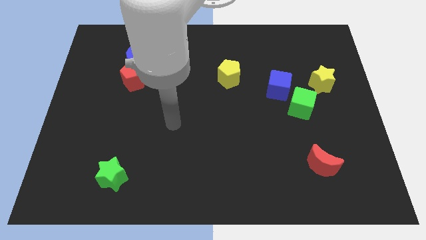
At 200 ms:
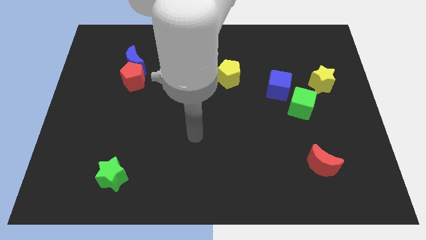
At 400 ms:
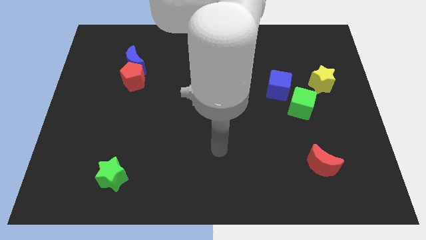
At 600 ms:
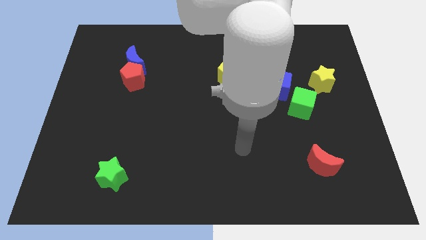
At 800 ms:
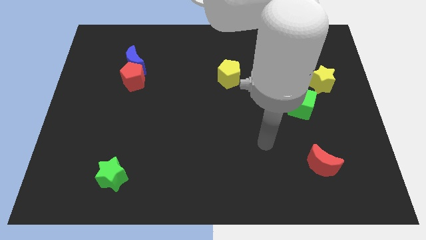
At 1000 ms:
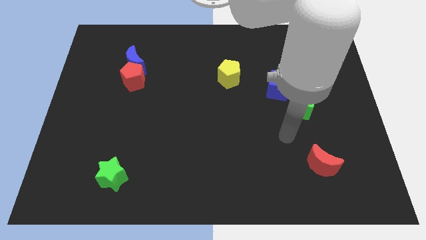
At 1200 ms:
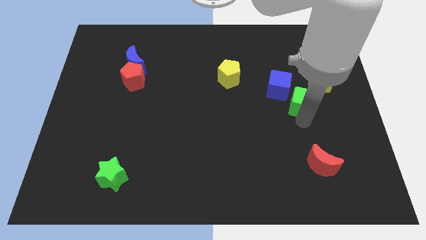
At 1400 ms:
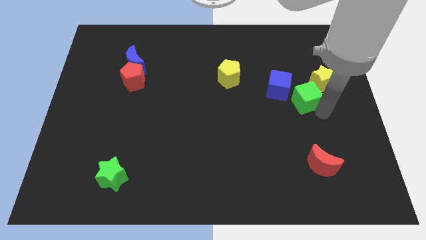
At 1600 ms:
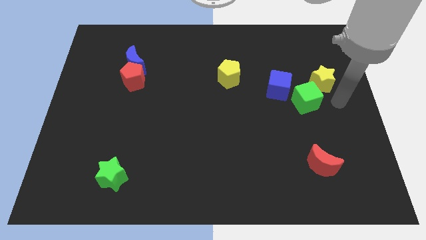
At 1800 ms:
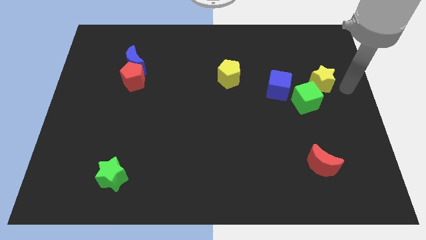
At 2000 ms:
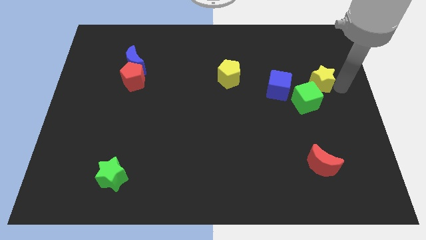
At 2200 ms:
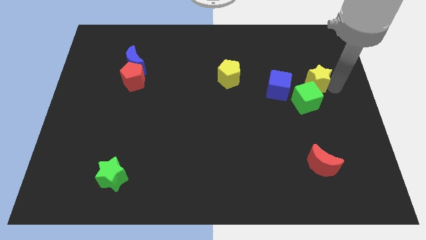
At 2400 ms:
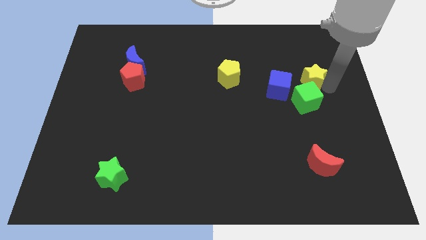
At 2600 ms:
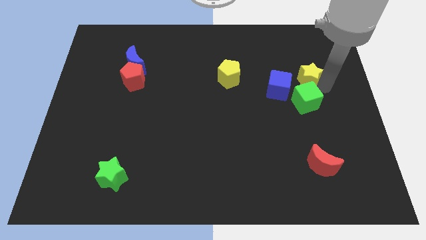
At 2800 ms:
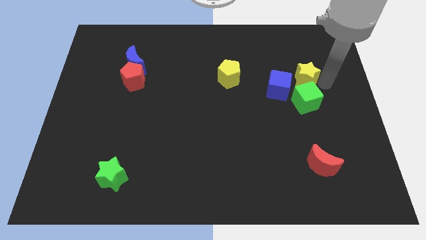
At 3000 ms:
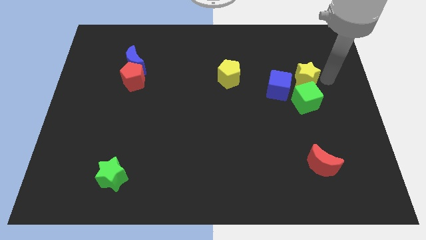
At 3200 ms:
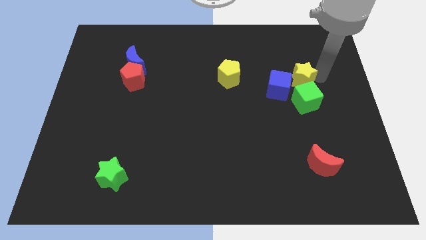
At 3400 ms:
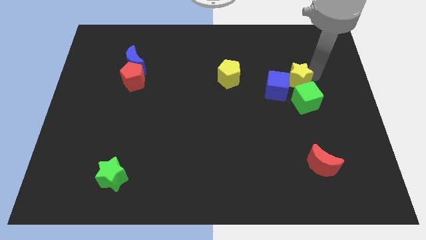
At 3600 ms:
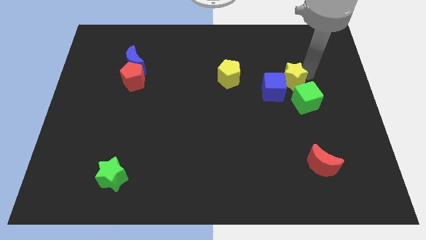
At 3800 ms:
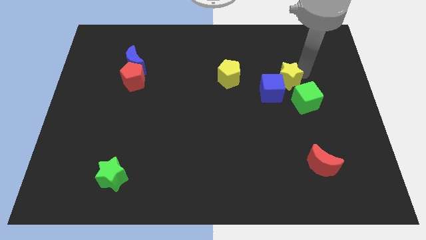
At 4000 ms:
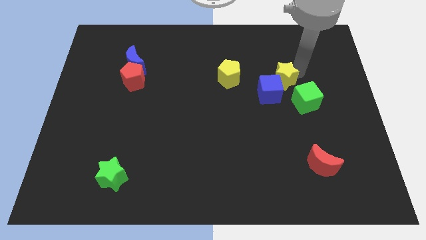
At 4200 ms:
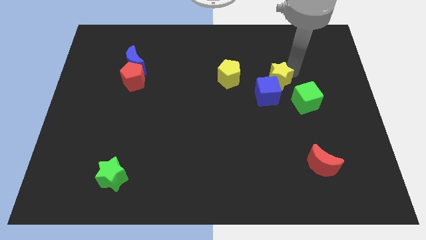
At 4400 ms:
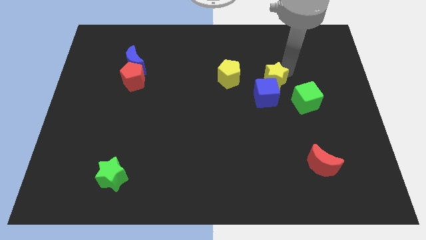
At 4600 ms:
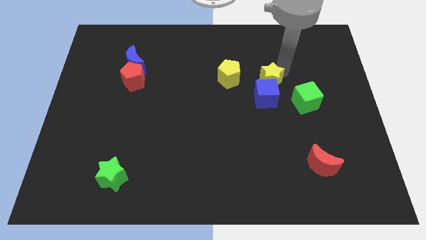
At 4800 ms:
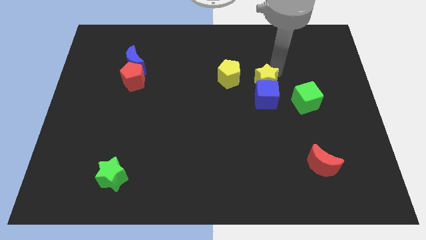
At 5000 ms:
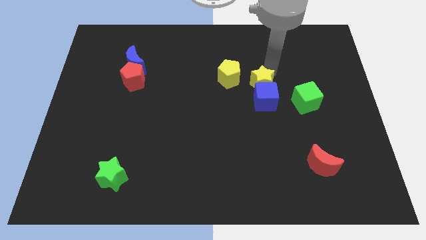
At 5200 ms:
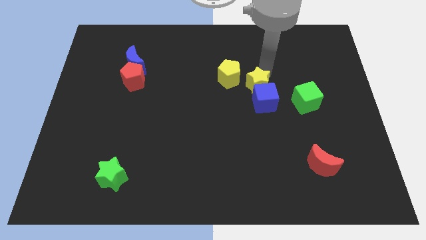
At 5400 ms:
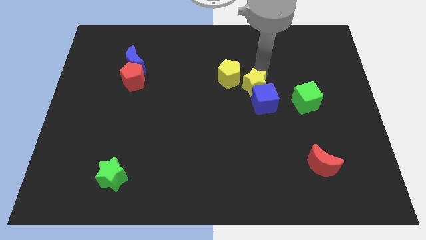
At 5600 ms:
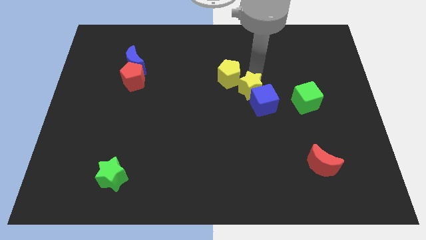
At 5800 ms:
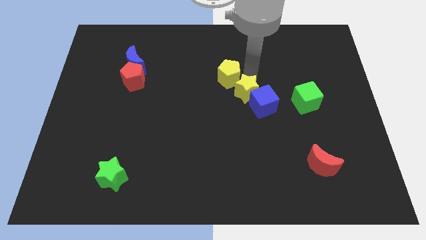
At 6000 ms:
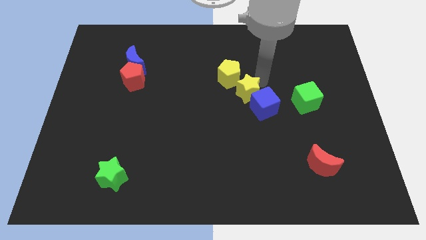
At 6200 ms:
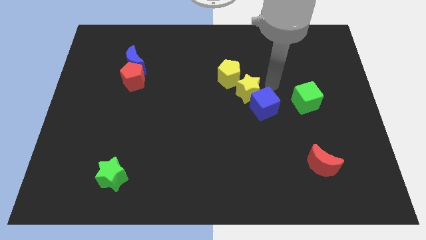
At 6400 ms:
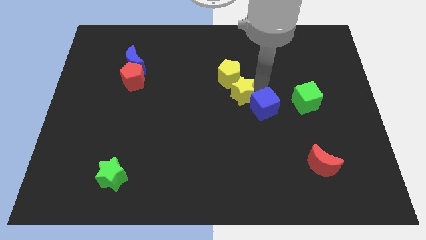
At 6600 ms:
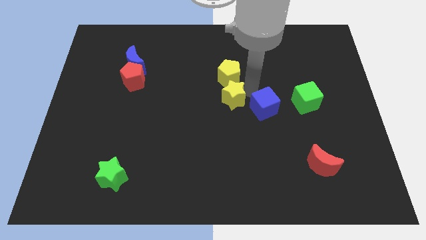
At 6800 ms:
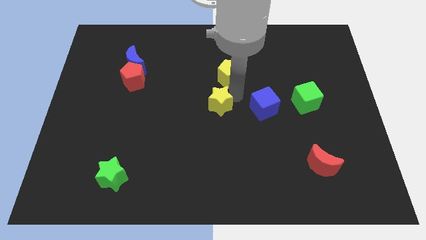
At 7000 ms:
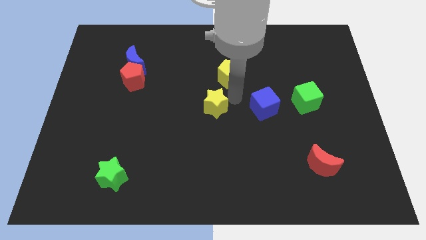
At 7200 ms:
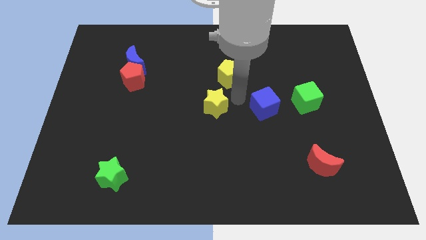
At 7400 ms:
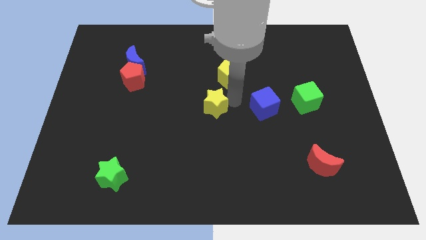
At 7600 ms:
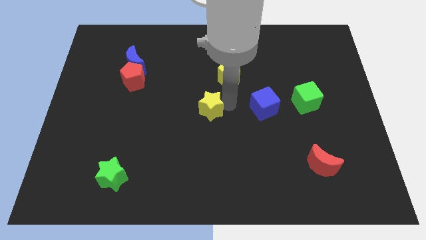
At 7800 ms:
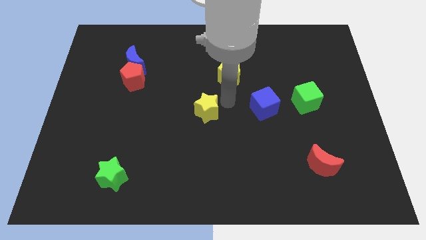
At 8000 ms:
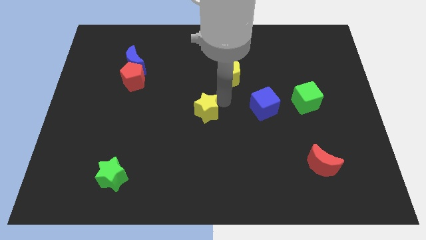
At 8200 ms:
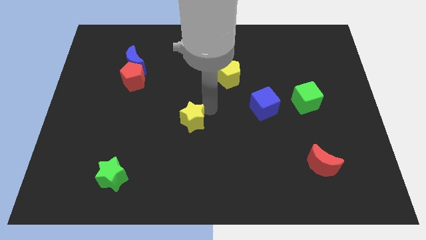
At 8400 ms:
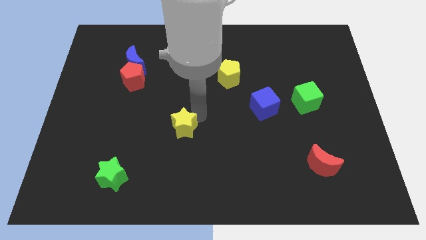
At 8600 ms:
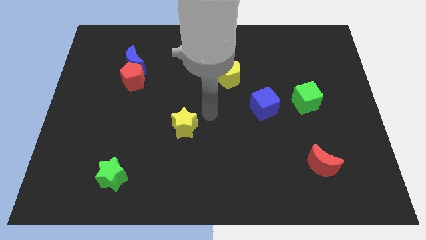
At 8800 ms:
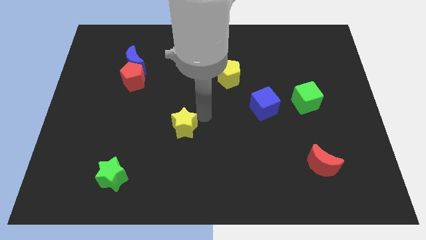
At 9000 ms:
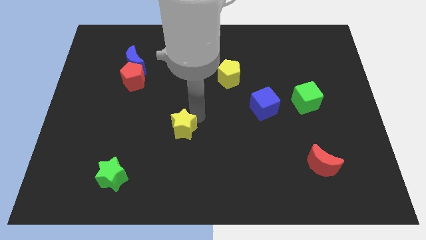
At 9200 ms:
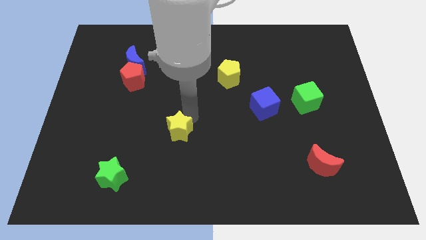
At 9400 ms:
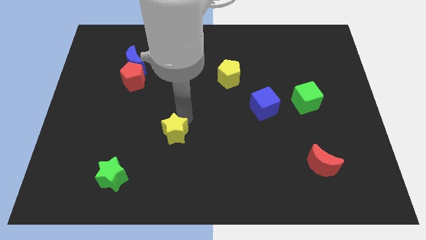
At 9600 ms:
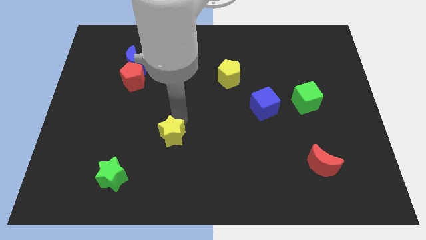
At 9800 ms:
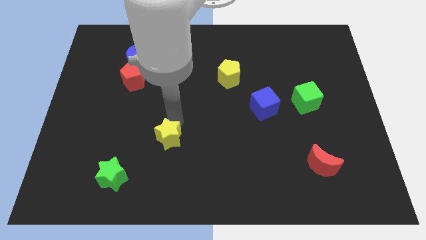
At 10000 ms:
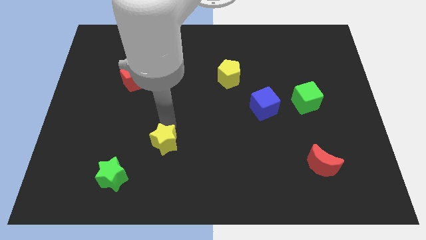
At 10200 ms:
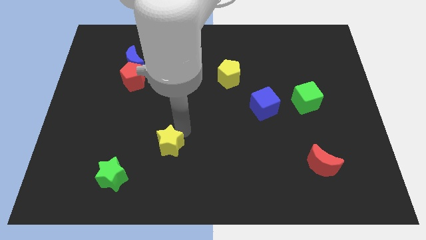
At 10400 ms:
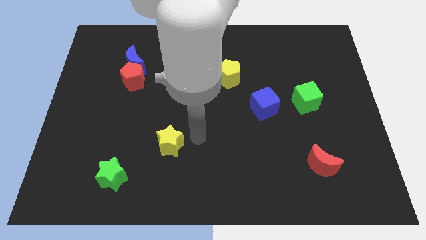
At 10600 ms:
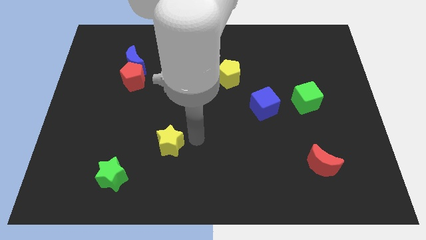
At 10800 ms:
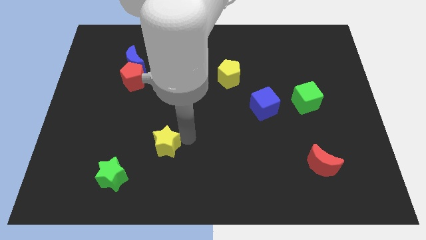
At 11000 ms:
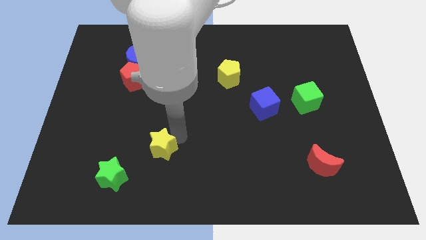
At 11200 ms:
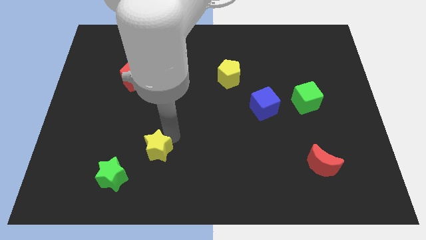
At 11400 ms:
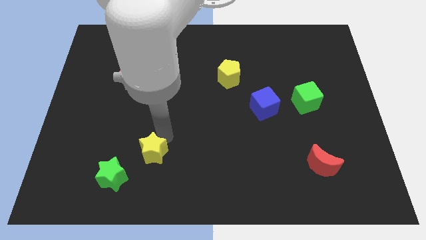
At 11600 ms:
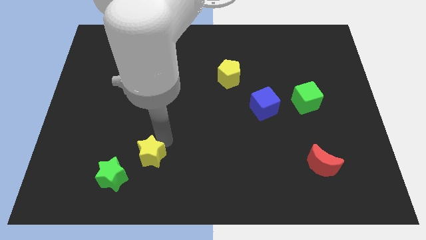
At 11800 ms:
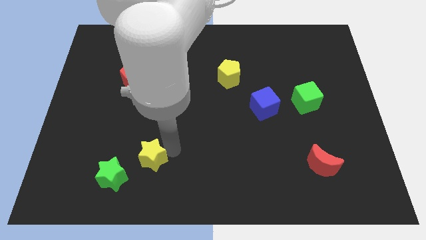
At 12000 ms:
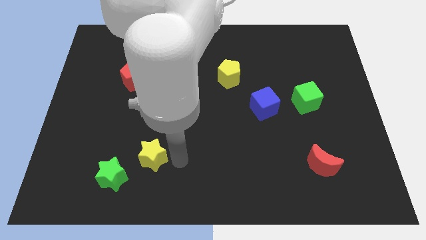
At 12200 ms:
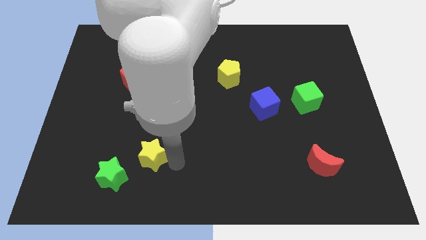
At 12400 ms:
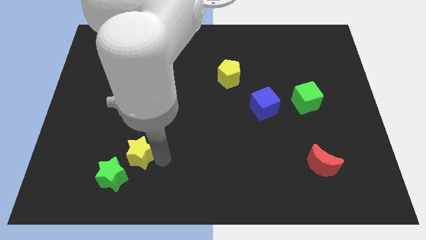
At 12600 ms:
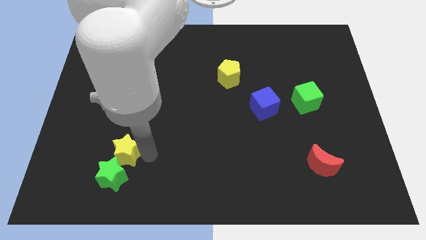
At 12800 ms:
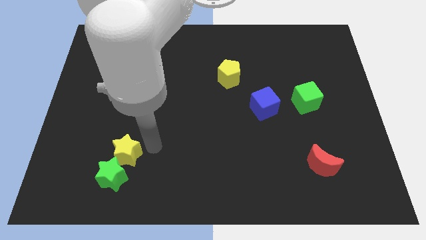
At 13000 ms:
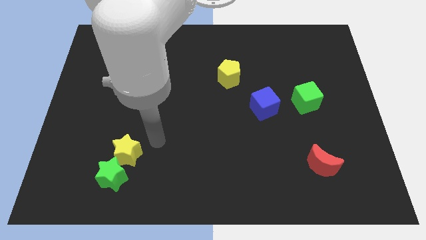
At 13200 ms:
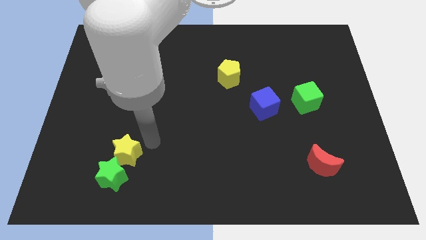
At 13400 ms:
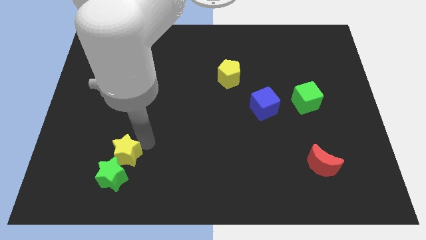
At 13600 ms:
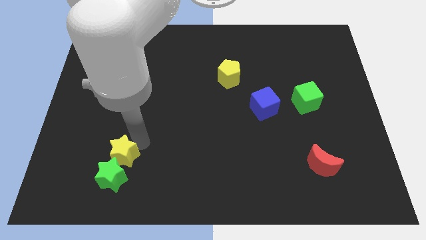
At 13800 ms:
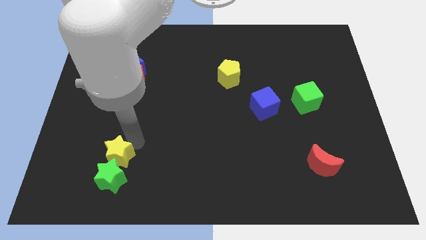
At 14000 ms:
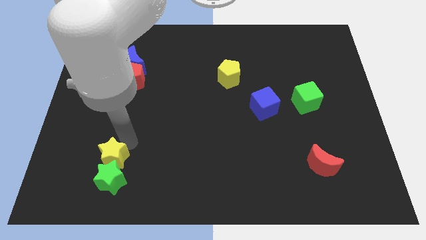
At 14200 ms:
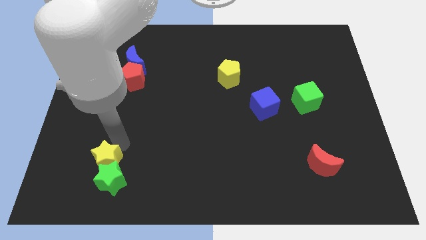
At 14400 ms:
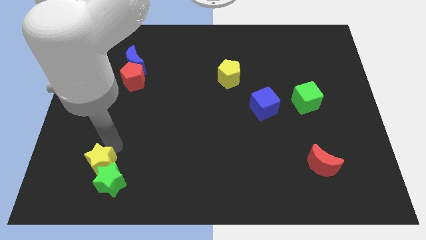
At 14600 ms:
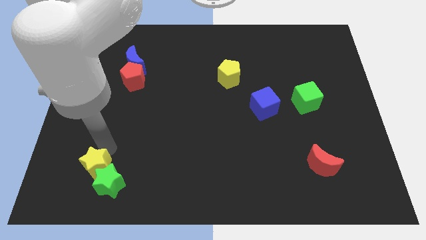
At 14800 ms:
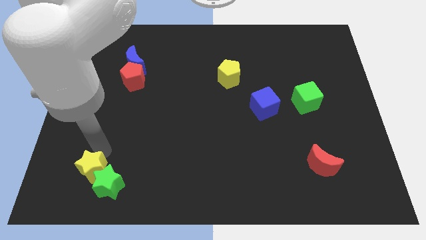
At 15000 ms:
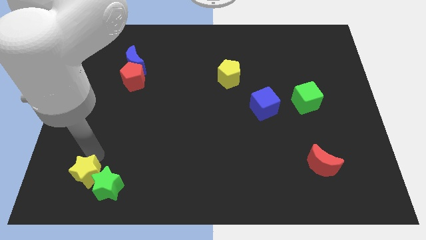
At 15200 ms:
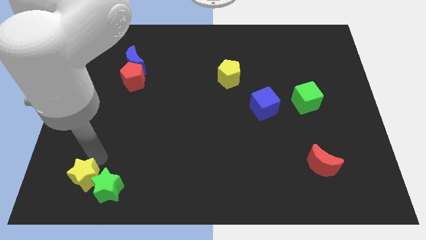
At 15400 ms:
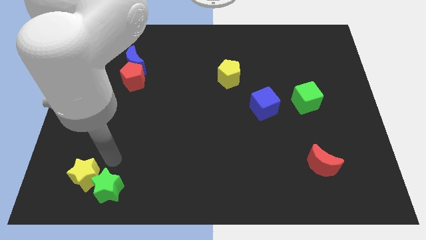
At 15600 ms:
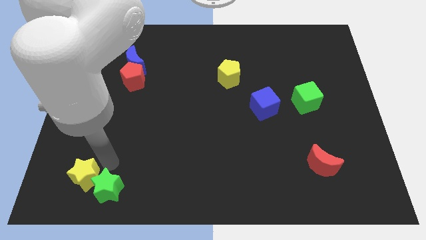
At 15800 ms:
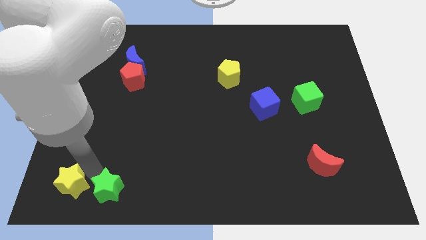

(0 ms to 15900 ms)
put the yellow star to the bottom left of the board
